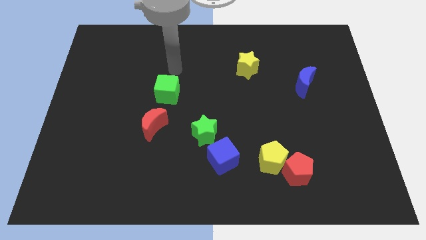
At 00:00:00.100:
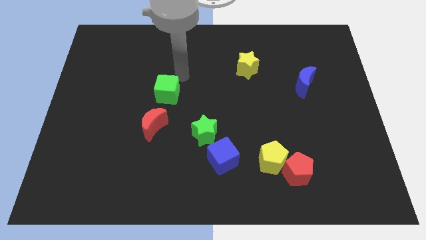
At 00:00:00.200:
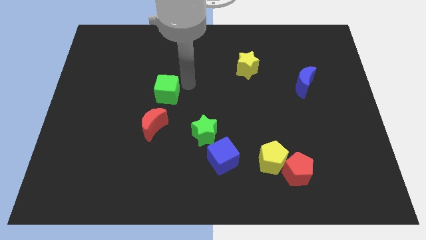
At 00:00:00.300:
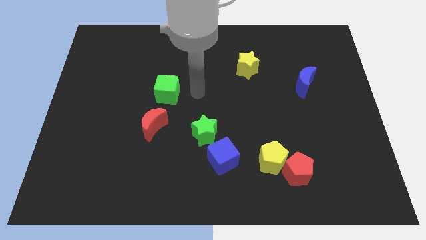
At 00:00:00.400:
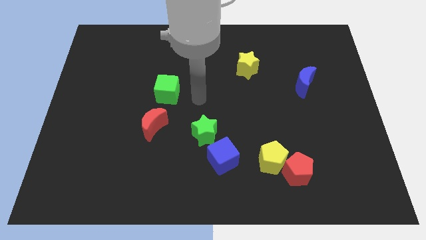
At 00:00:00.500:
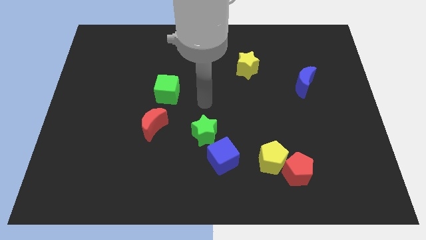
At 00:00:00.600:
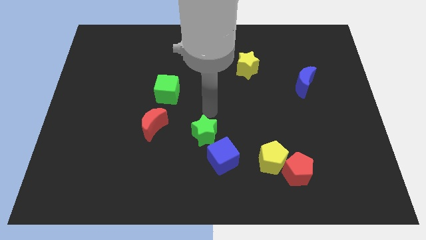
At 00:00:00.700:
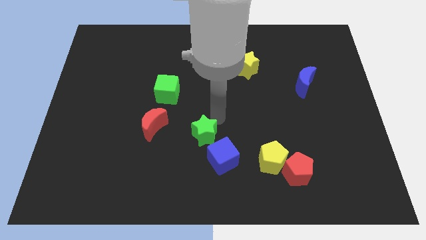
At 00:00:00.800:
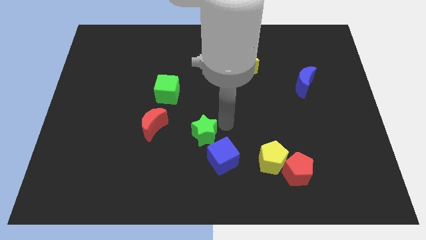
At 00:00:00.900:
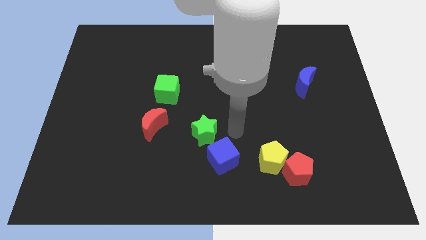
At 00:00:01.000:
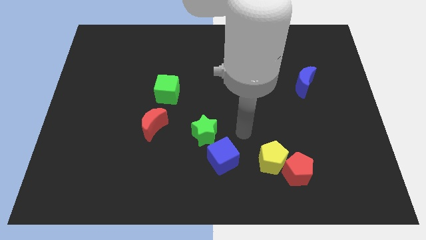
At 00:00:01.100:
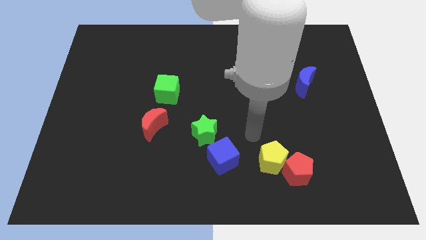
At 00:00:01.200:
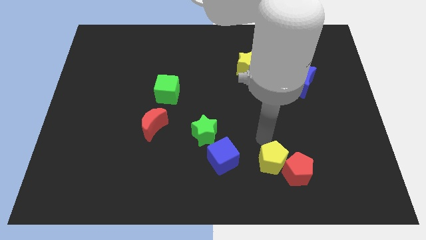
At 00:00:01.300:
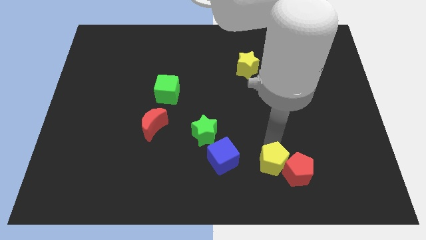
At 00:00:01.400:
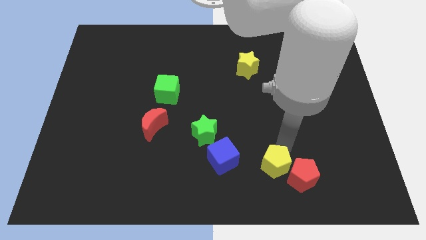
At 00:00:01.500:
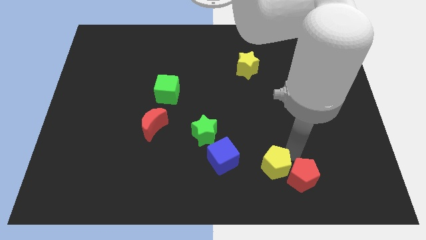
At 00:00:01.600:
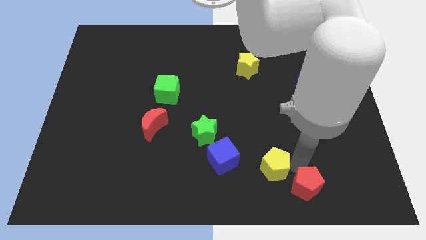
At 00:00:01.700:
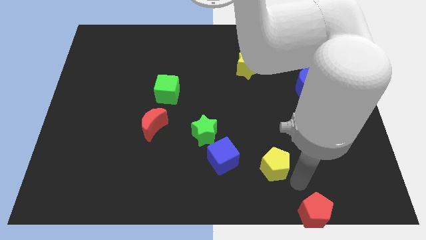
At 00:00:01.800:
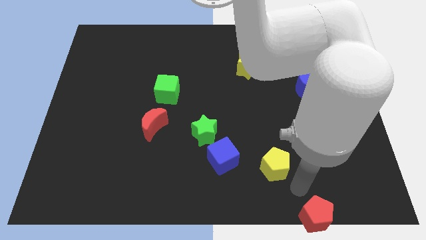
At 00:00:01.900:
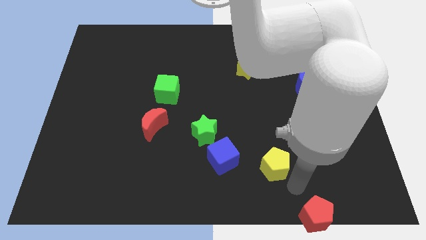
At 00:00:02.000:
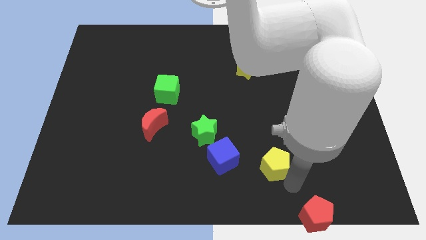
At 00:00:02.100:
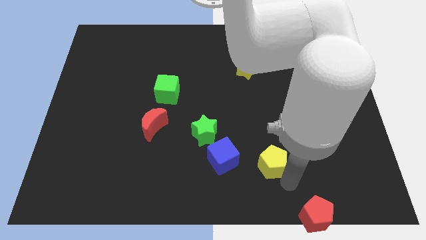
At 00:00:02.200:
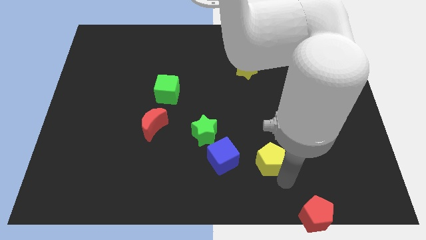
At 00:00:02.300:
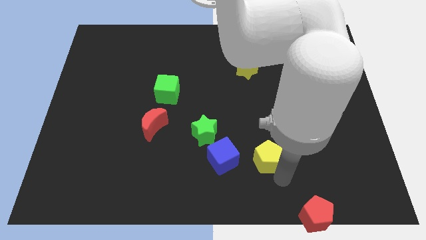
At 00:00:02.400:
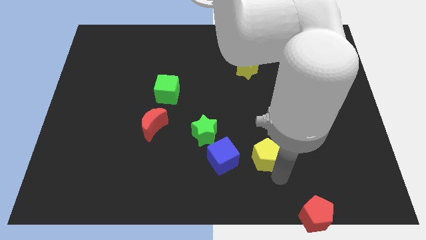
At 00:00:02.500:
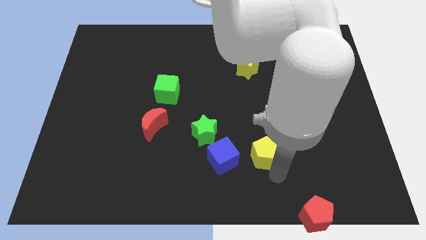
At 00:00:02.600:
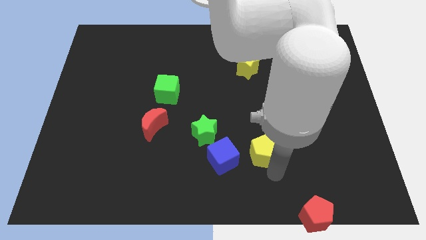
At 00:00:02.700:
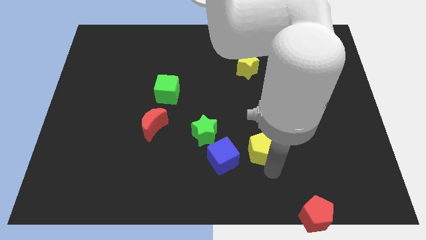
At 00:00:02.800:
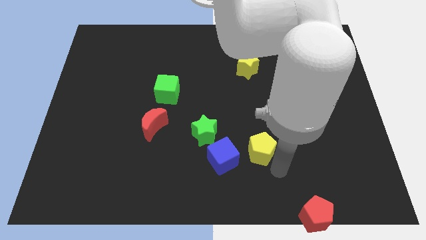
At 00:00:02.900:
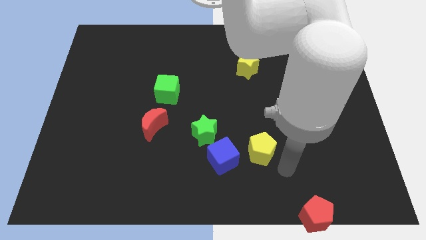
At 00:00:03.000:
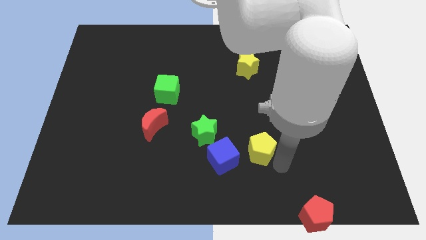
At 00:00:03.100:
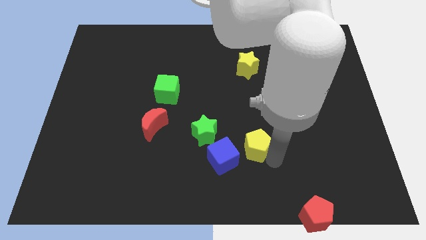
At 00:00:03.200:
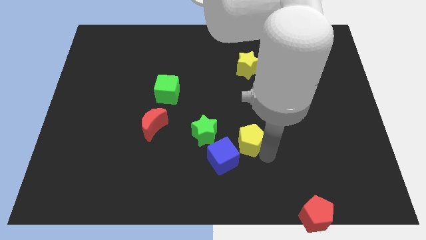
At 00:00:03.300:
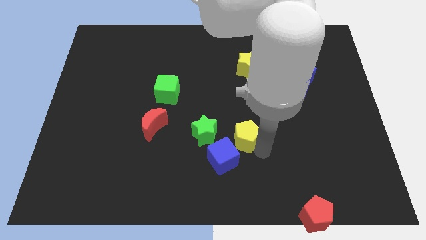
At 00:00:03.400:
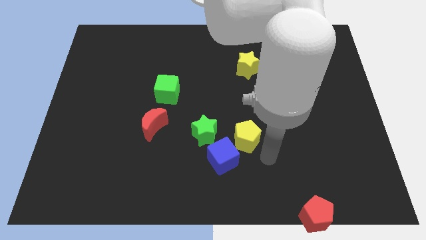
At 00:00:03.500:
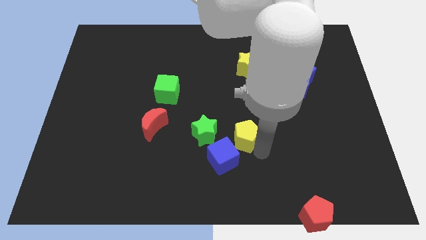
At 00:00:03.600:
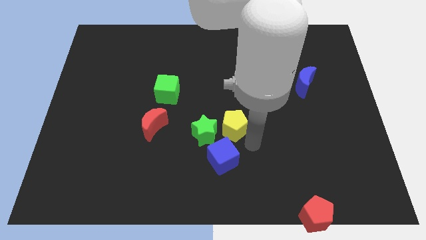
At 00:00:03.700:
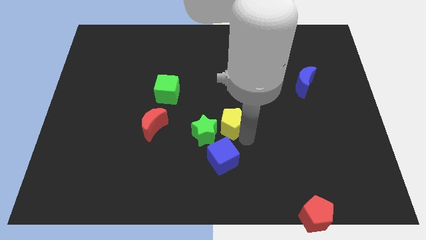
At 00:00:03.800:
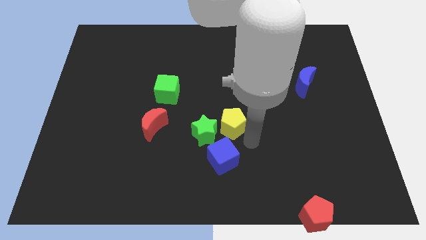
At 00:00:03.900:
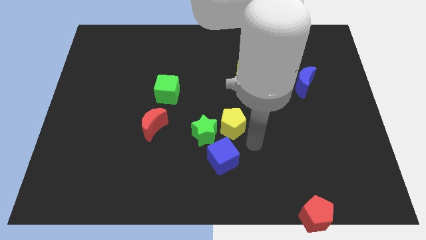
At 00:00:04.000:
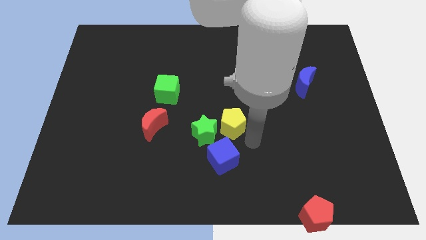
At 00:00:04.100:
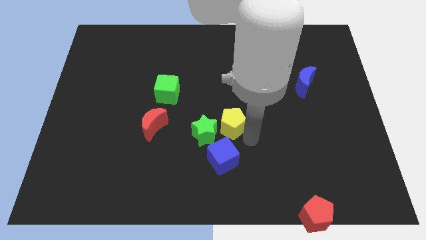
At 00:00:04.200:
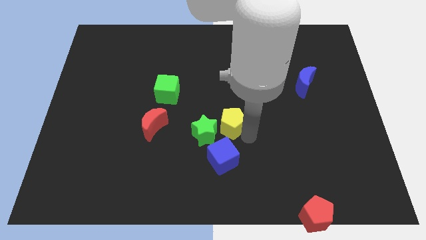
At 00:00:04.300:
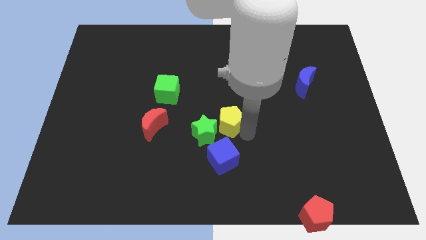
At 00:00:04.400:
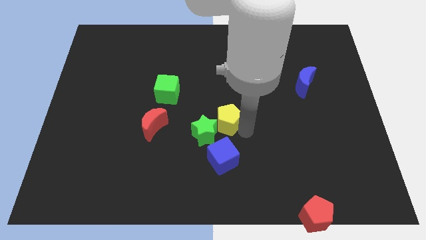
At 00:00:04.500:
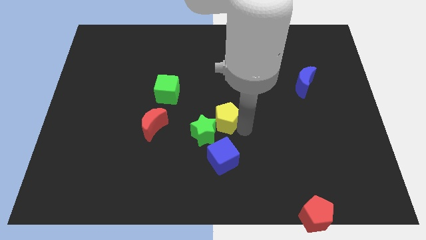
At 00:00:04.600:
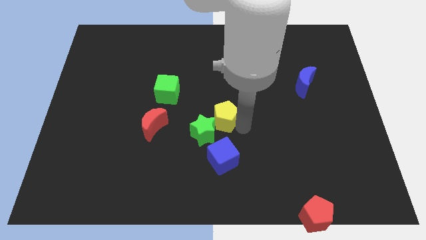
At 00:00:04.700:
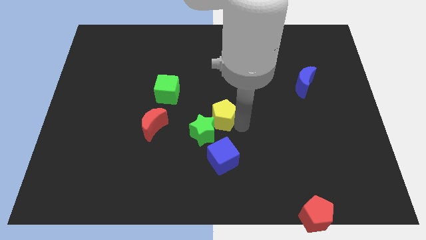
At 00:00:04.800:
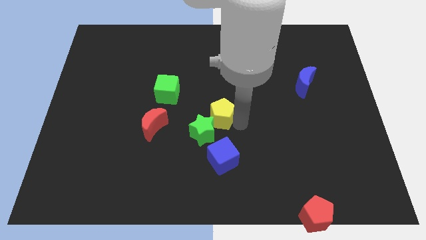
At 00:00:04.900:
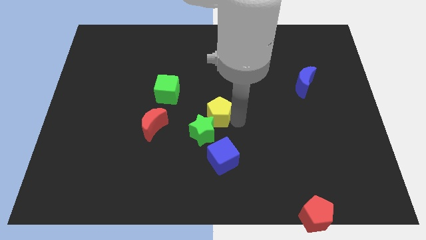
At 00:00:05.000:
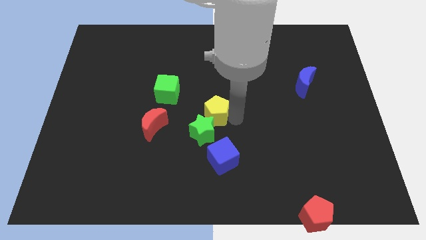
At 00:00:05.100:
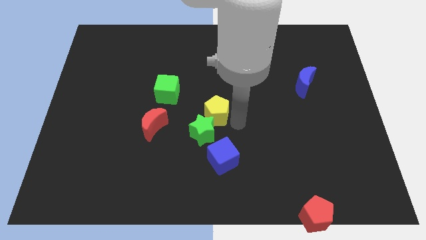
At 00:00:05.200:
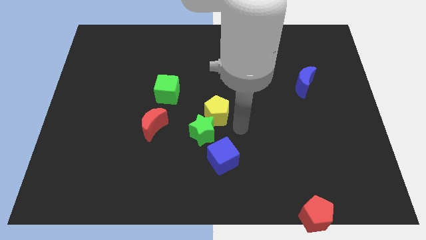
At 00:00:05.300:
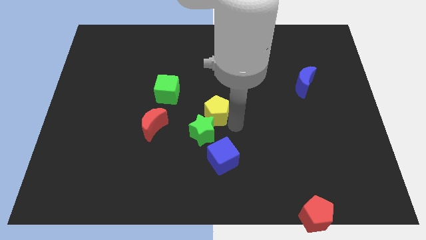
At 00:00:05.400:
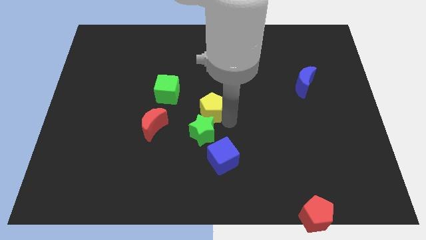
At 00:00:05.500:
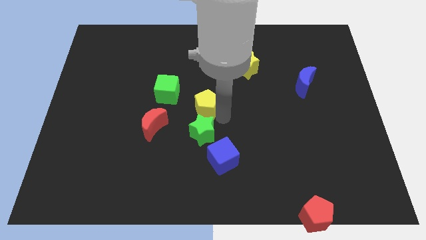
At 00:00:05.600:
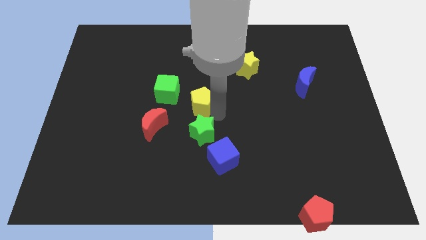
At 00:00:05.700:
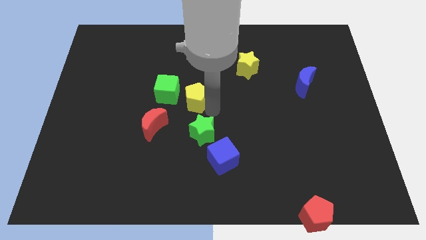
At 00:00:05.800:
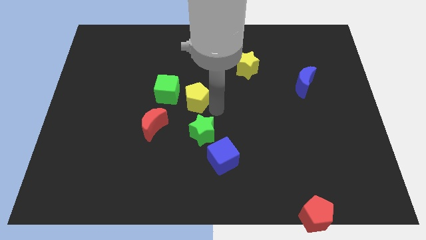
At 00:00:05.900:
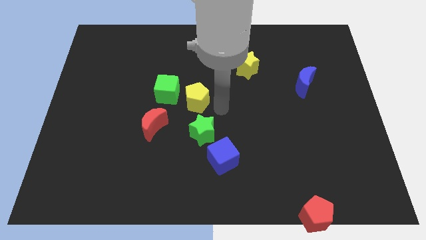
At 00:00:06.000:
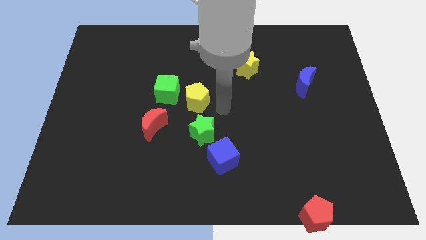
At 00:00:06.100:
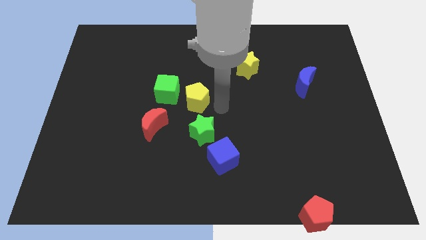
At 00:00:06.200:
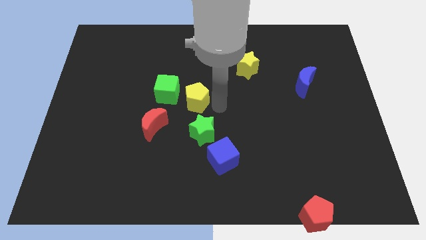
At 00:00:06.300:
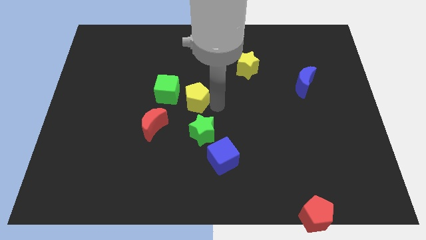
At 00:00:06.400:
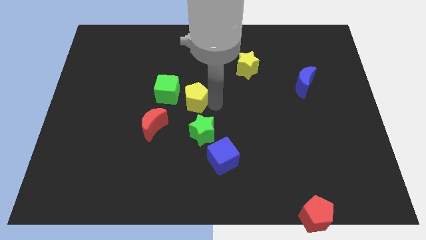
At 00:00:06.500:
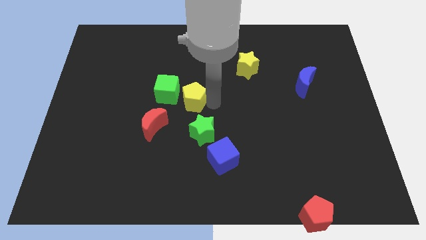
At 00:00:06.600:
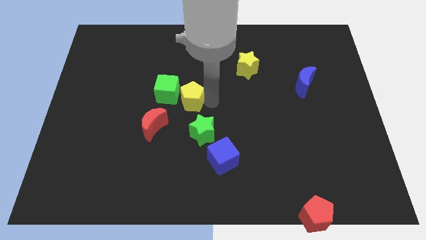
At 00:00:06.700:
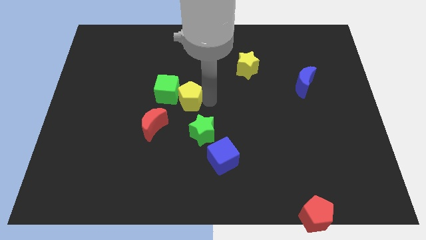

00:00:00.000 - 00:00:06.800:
put the yellow pentagon to the green cube

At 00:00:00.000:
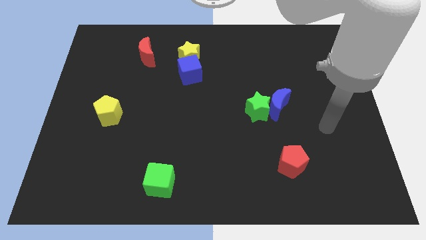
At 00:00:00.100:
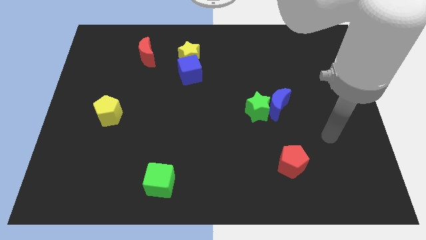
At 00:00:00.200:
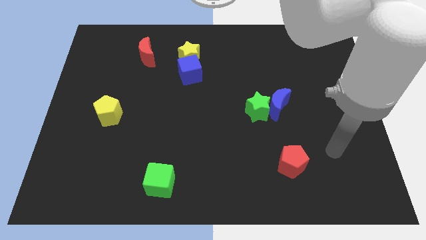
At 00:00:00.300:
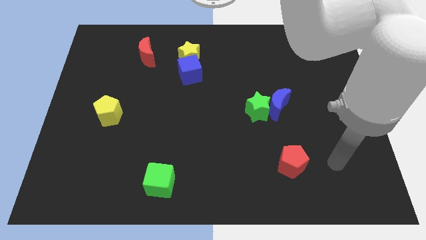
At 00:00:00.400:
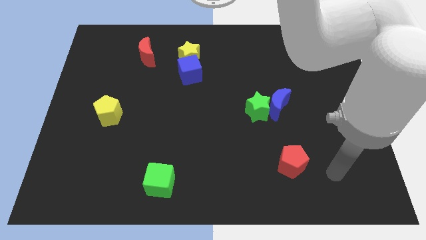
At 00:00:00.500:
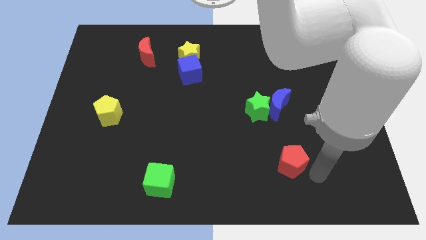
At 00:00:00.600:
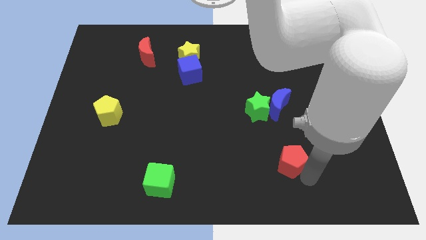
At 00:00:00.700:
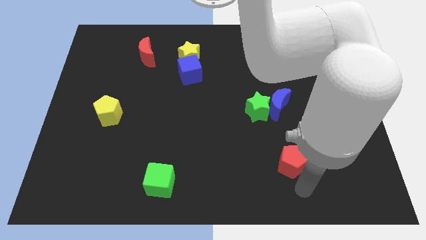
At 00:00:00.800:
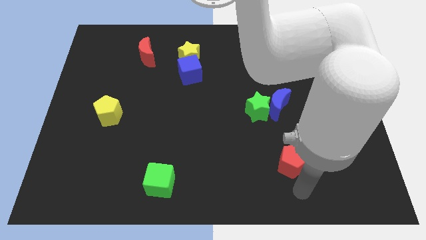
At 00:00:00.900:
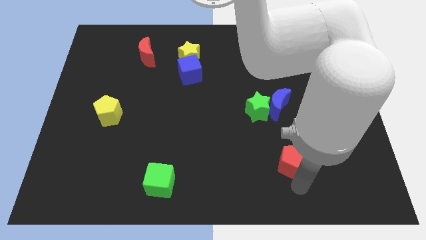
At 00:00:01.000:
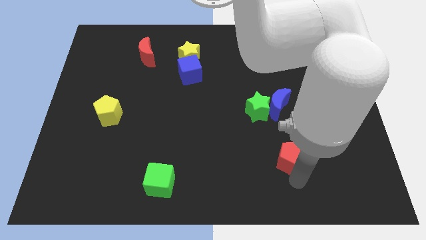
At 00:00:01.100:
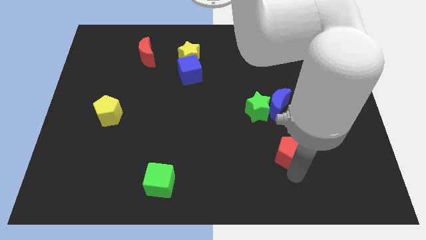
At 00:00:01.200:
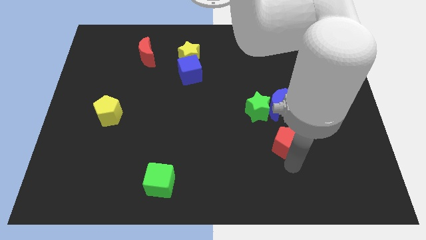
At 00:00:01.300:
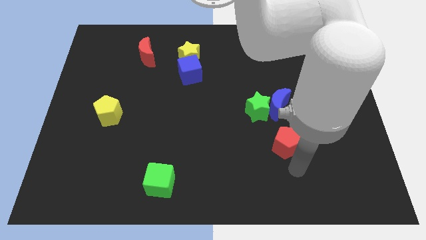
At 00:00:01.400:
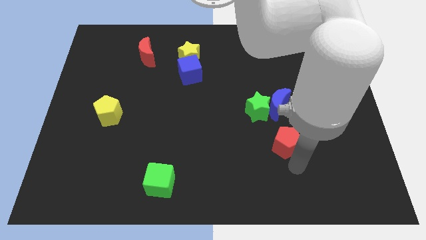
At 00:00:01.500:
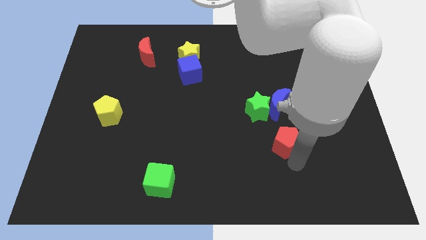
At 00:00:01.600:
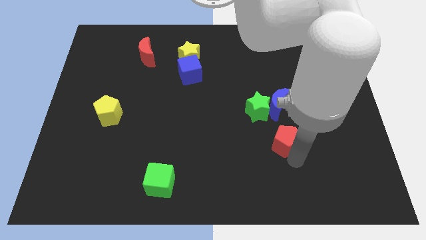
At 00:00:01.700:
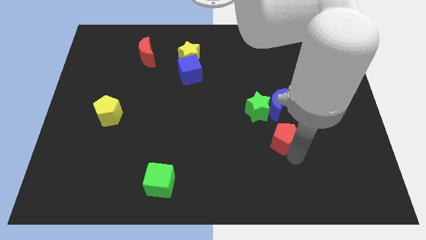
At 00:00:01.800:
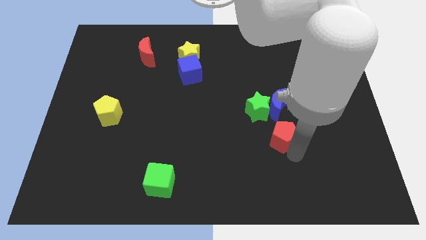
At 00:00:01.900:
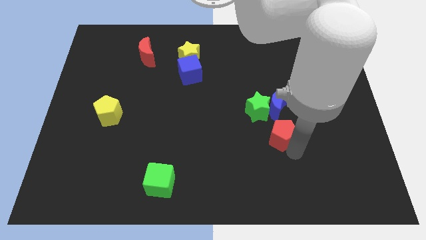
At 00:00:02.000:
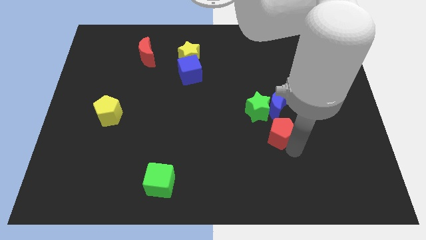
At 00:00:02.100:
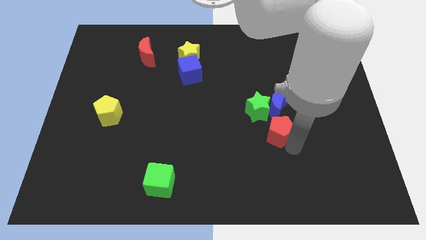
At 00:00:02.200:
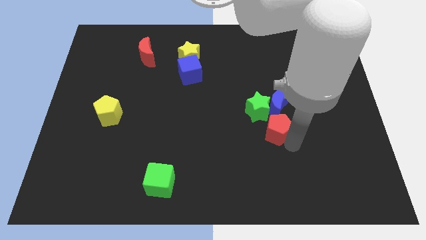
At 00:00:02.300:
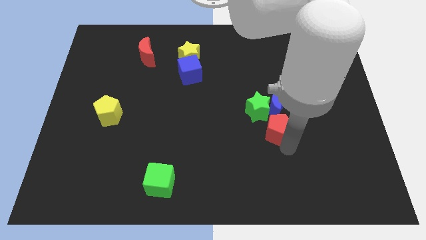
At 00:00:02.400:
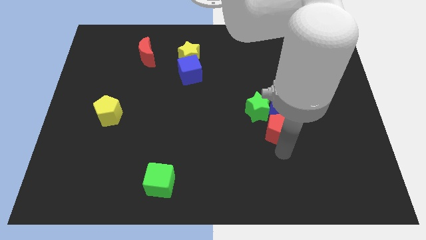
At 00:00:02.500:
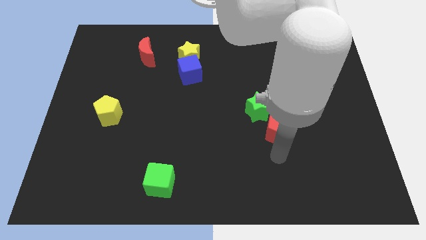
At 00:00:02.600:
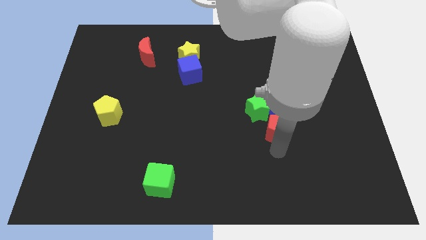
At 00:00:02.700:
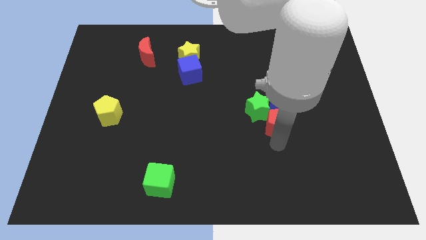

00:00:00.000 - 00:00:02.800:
move the red pentagon to the blue moon
